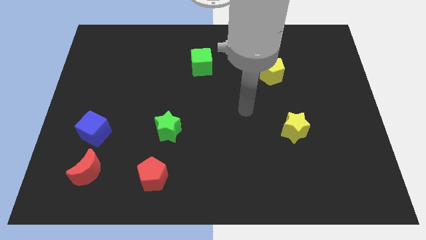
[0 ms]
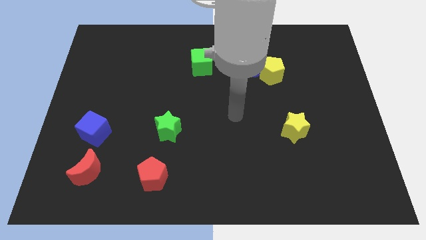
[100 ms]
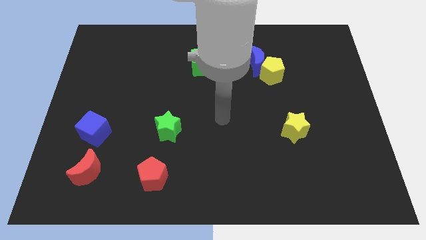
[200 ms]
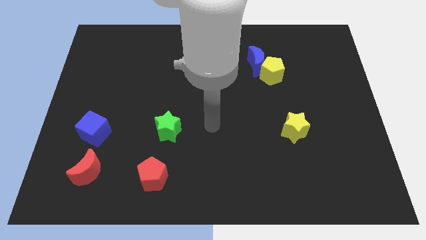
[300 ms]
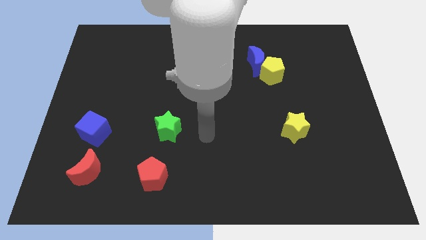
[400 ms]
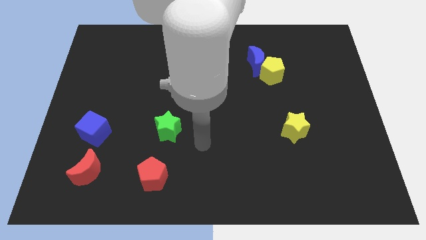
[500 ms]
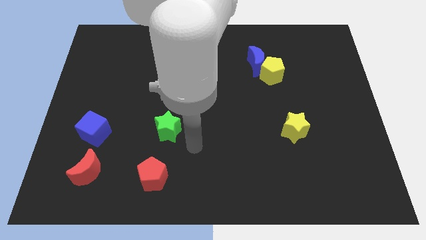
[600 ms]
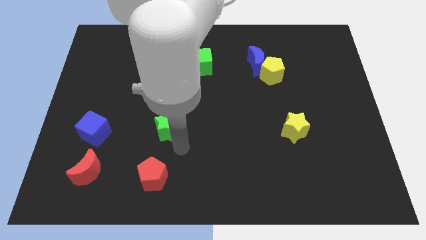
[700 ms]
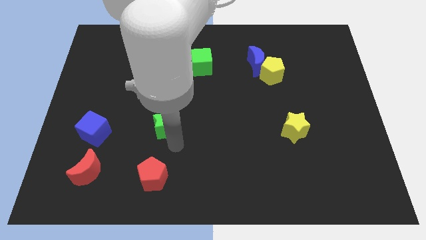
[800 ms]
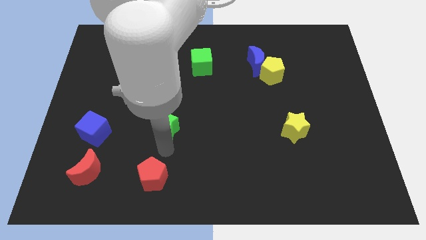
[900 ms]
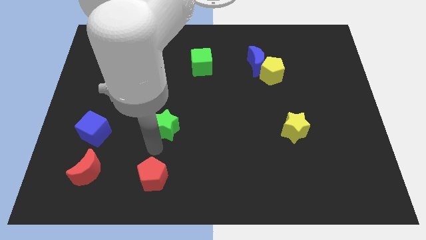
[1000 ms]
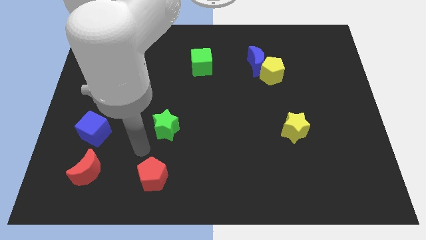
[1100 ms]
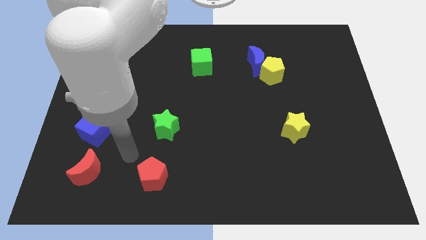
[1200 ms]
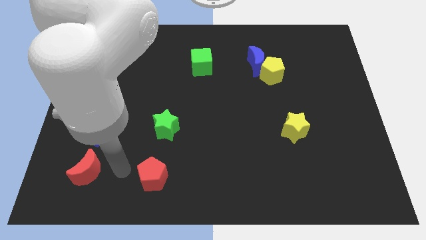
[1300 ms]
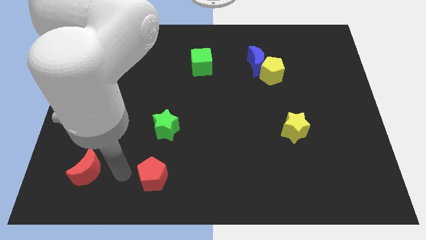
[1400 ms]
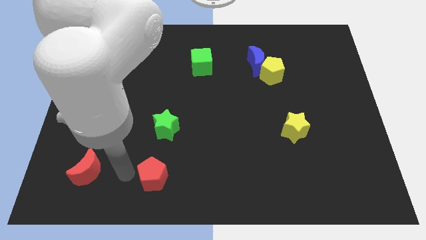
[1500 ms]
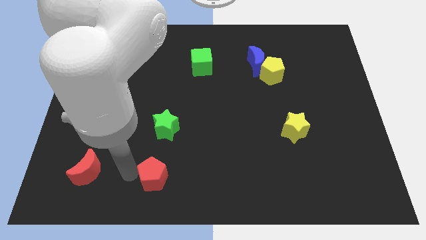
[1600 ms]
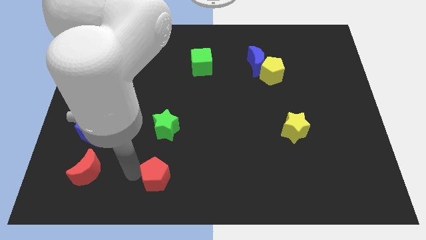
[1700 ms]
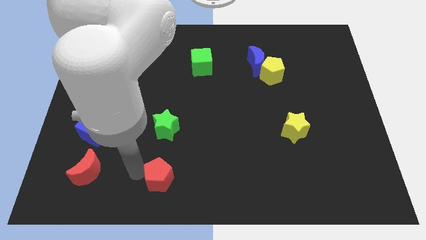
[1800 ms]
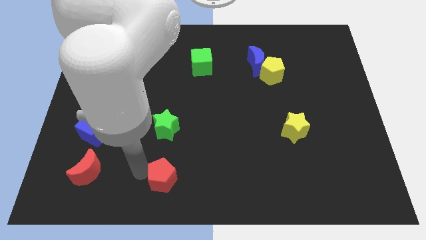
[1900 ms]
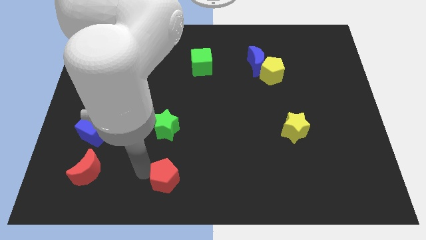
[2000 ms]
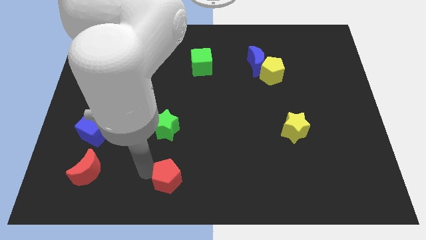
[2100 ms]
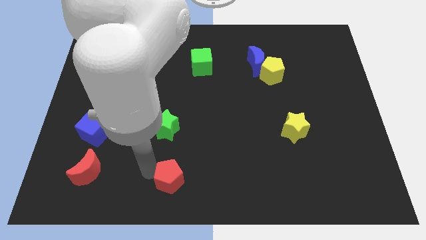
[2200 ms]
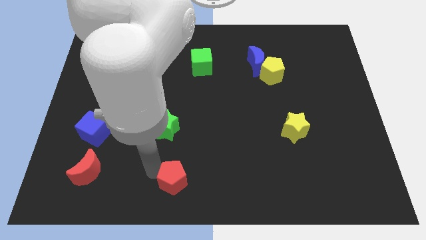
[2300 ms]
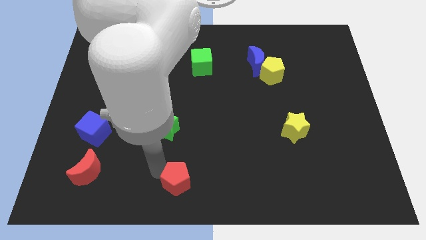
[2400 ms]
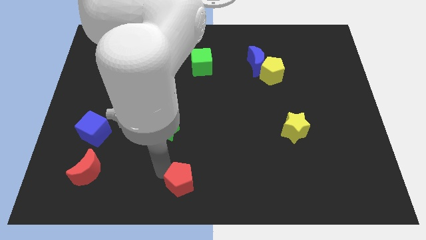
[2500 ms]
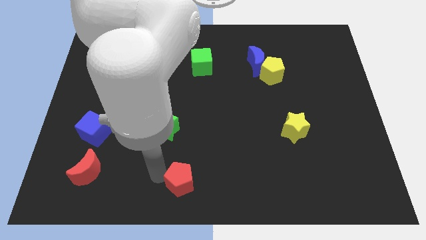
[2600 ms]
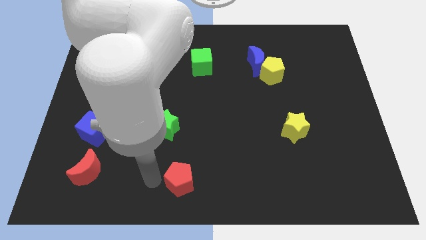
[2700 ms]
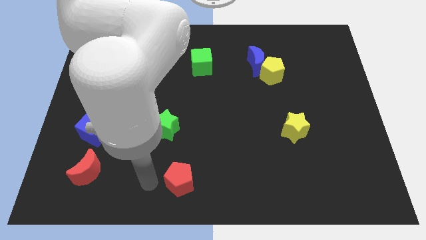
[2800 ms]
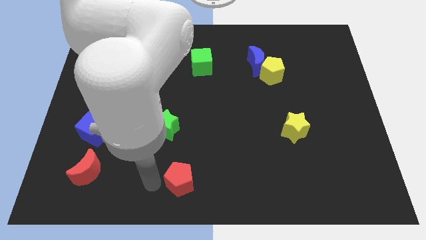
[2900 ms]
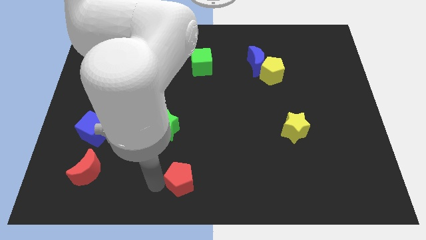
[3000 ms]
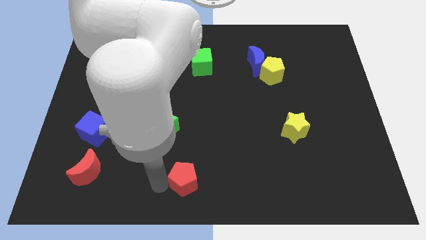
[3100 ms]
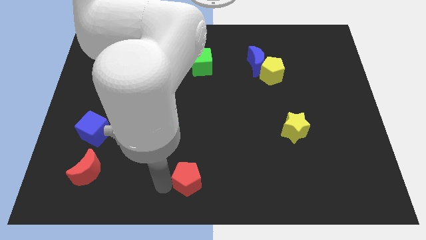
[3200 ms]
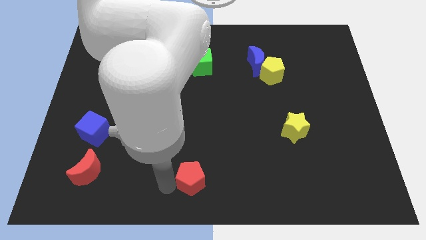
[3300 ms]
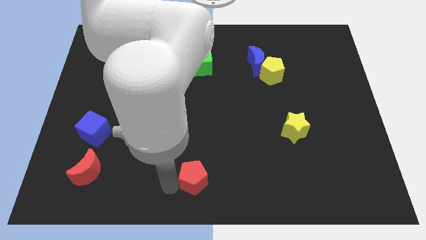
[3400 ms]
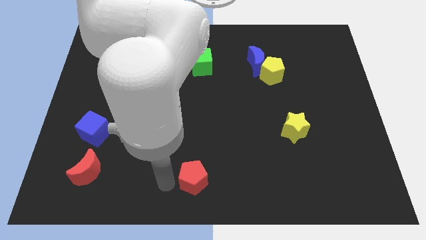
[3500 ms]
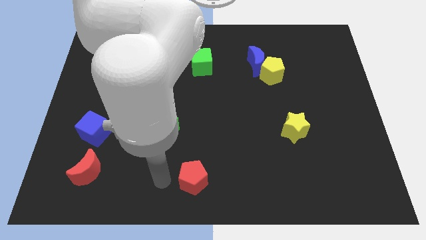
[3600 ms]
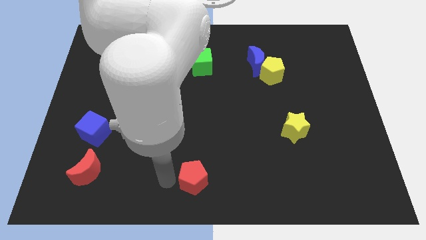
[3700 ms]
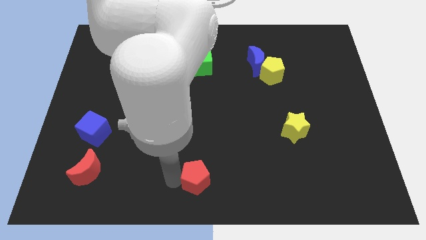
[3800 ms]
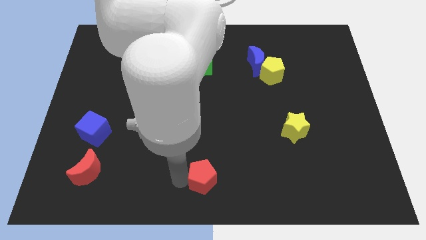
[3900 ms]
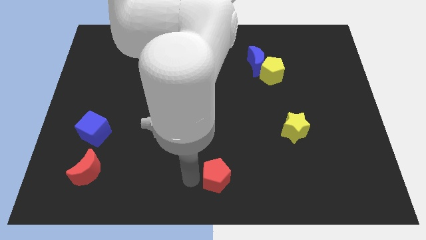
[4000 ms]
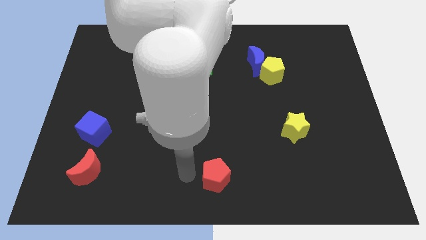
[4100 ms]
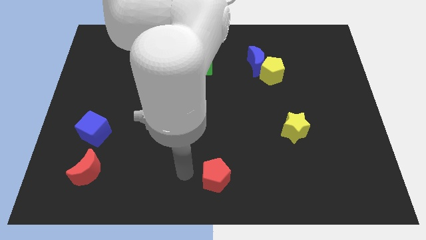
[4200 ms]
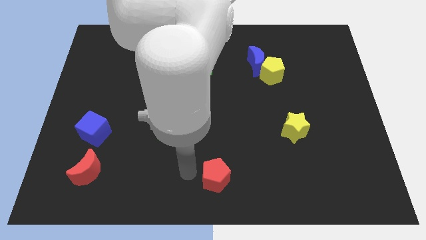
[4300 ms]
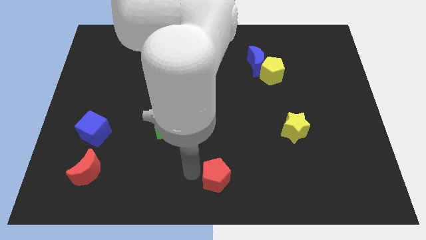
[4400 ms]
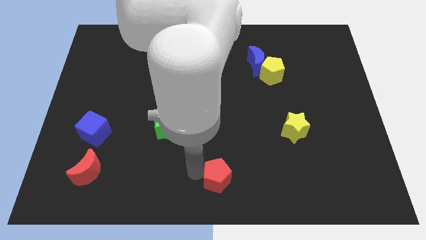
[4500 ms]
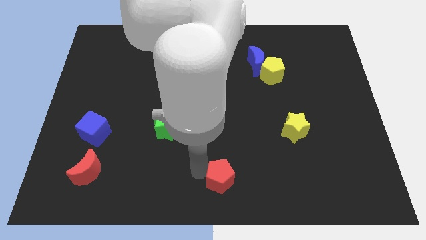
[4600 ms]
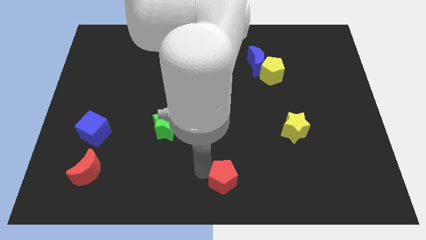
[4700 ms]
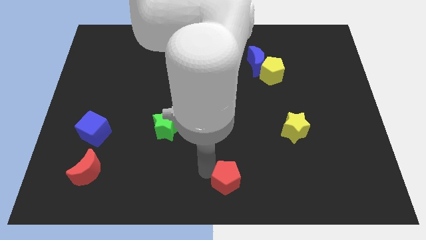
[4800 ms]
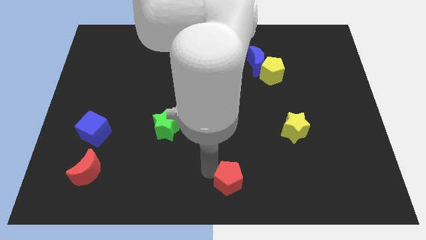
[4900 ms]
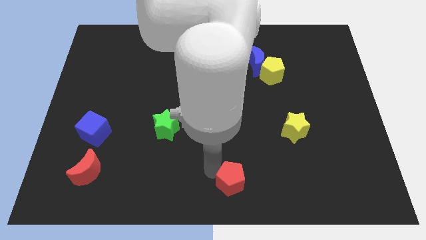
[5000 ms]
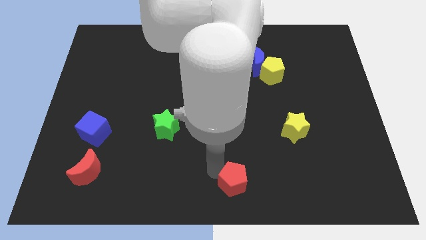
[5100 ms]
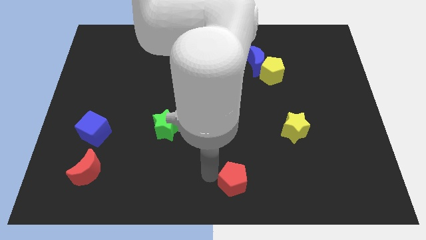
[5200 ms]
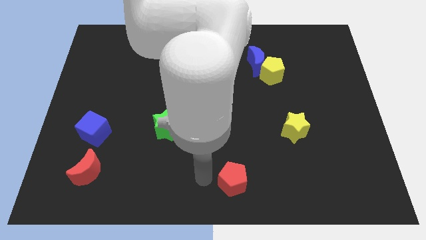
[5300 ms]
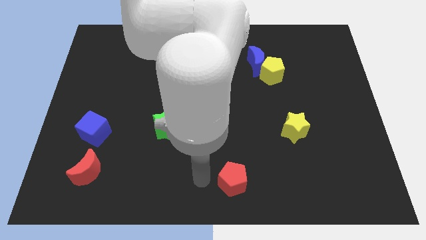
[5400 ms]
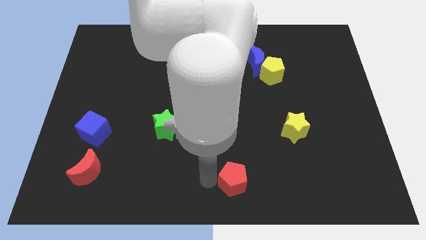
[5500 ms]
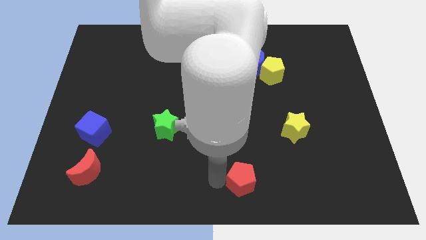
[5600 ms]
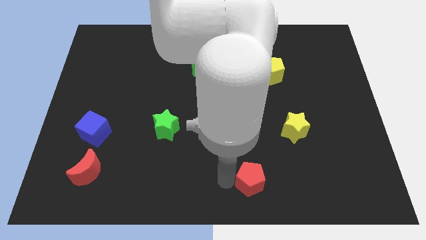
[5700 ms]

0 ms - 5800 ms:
move the red pentagon to the right

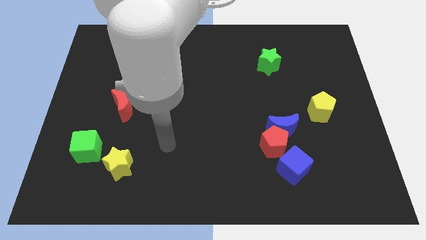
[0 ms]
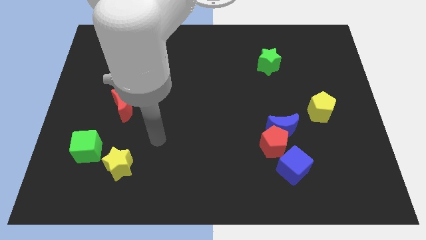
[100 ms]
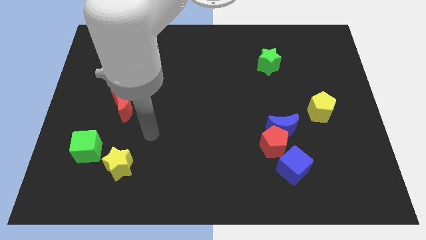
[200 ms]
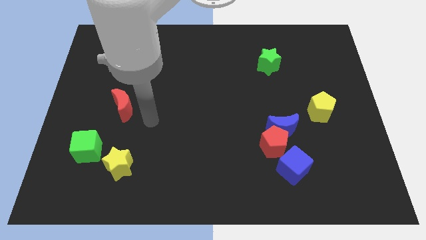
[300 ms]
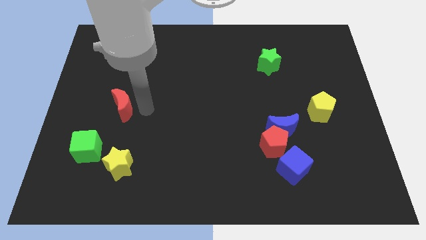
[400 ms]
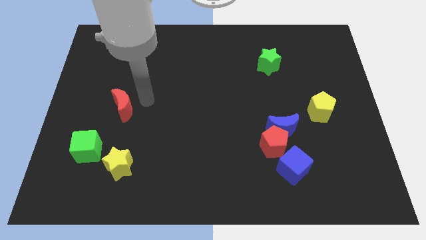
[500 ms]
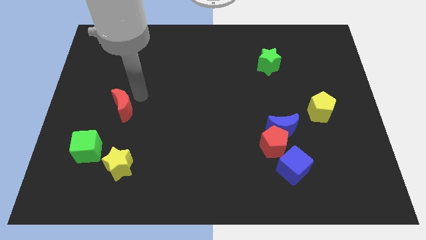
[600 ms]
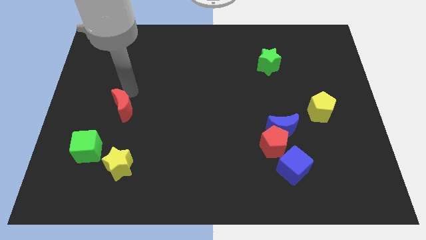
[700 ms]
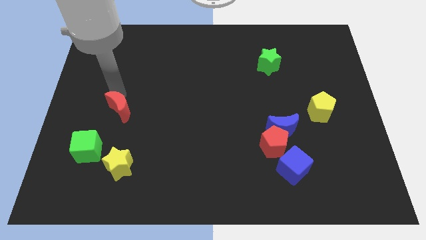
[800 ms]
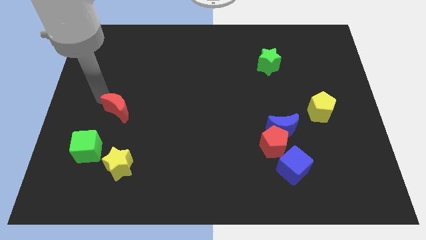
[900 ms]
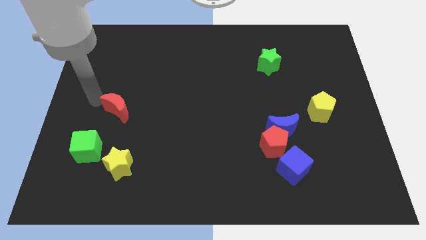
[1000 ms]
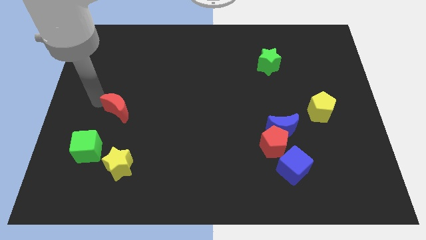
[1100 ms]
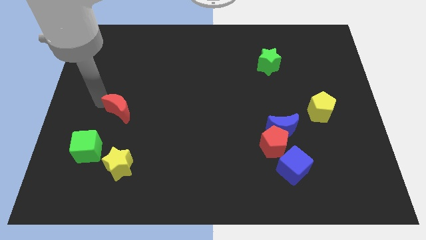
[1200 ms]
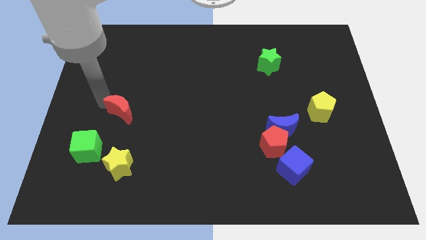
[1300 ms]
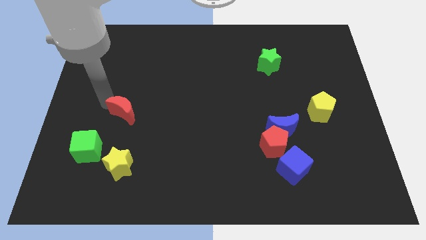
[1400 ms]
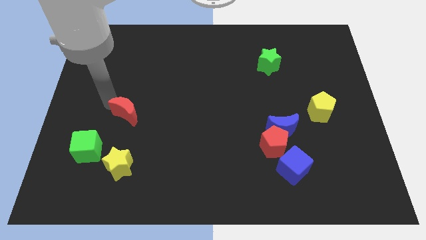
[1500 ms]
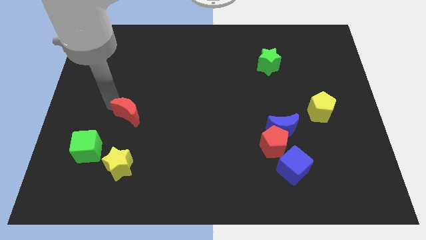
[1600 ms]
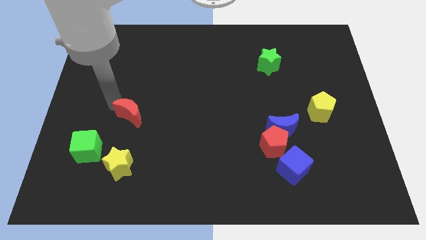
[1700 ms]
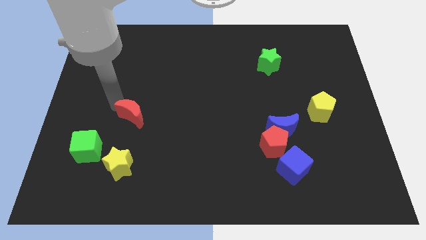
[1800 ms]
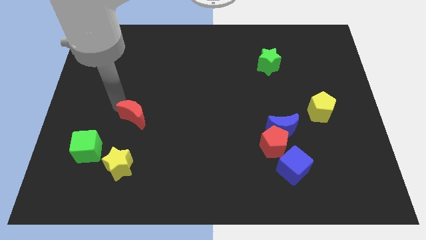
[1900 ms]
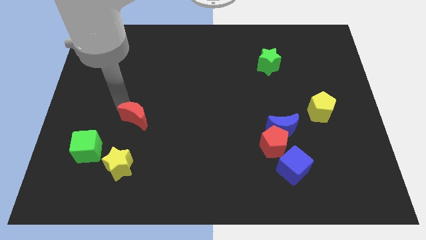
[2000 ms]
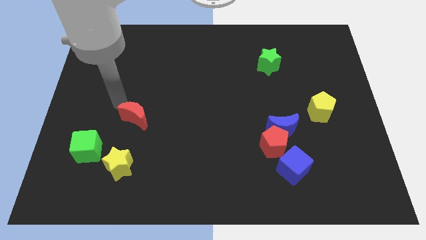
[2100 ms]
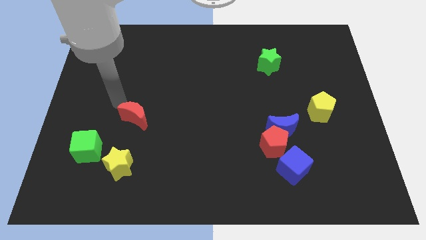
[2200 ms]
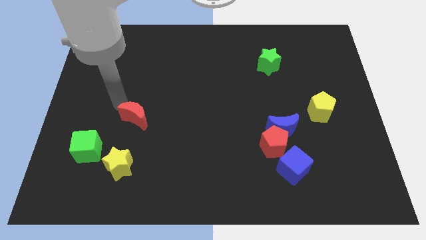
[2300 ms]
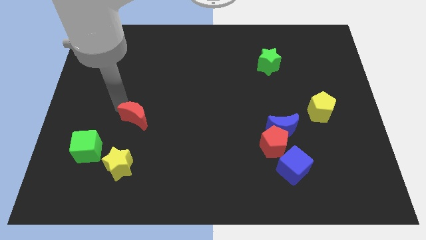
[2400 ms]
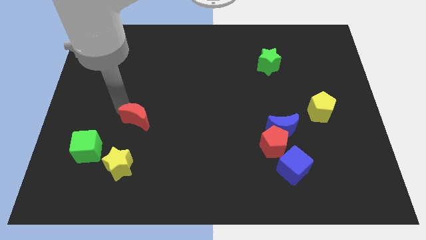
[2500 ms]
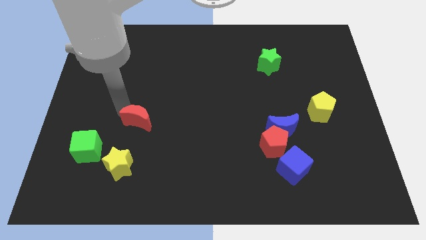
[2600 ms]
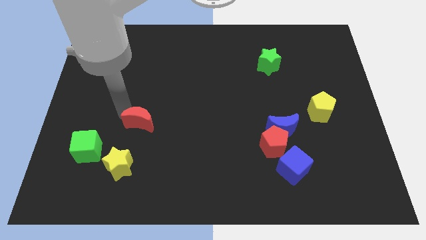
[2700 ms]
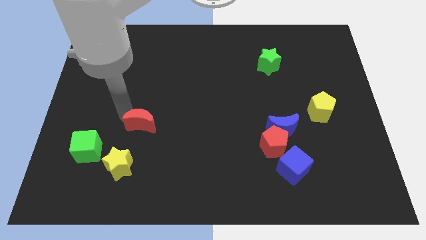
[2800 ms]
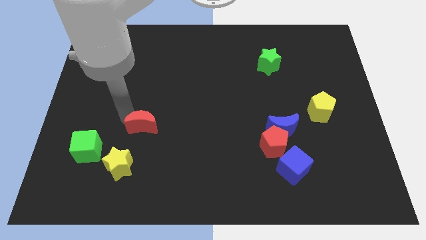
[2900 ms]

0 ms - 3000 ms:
slightly move the red moon diagonally downwards and to the right
